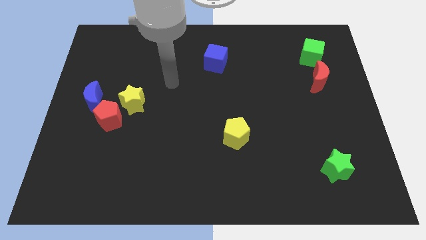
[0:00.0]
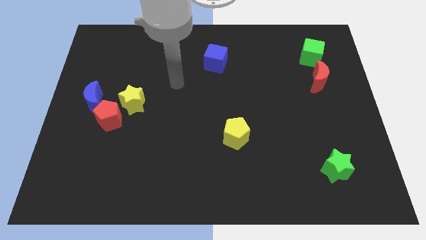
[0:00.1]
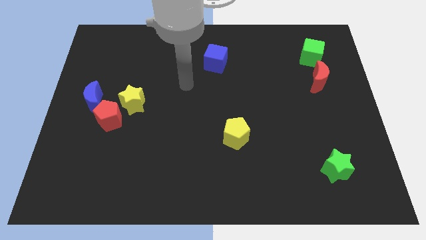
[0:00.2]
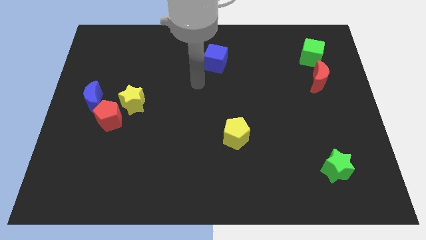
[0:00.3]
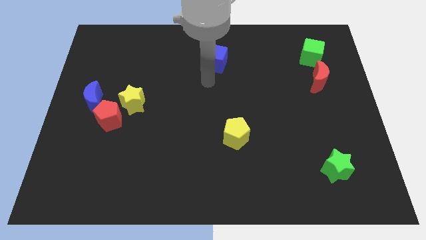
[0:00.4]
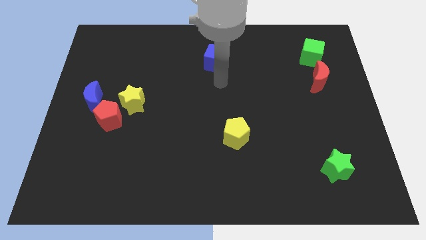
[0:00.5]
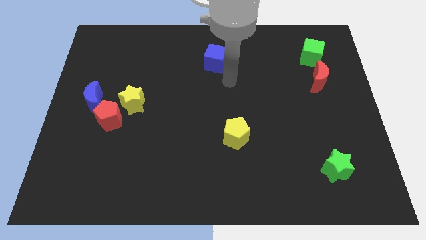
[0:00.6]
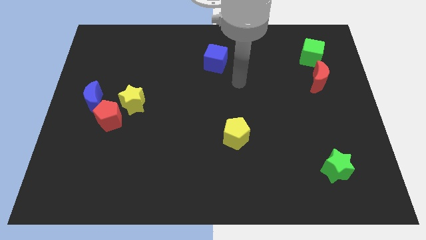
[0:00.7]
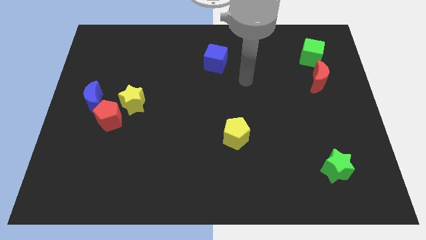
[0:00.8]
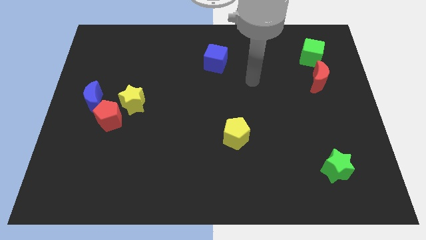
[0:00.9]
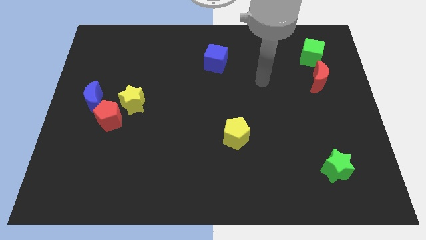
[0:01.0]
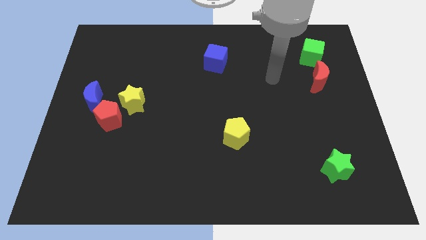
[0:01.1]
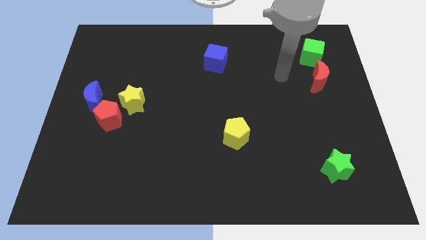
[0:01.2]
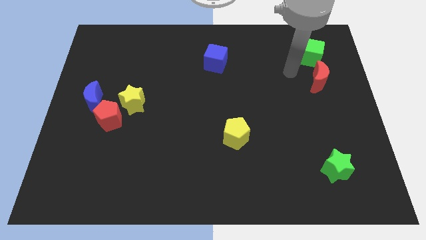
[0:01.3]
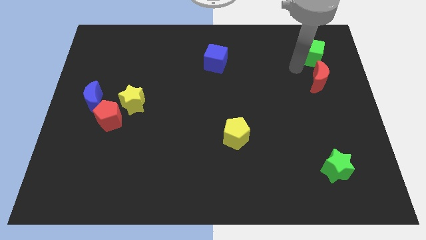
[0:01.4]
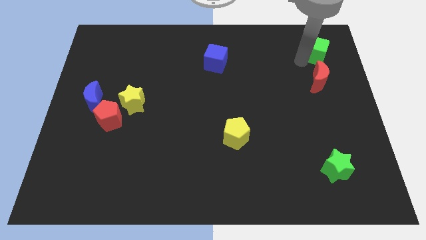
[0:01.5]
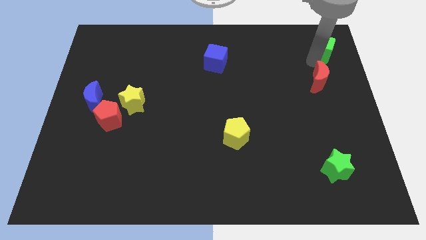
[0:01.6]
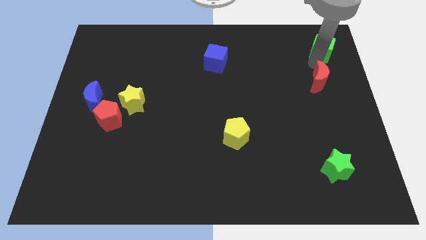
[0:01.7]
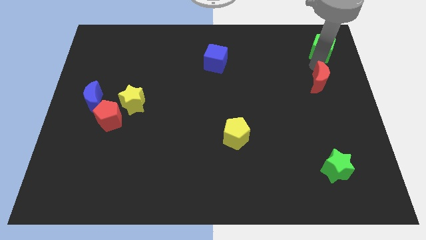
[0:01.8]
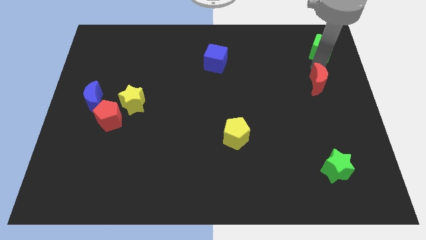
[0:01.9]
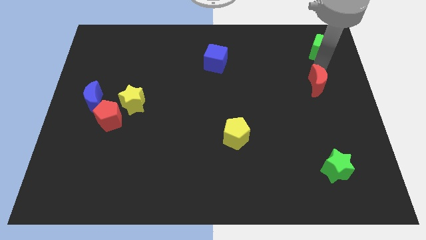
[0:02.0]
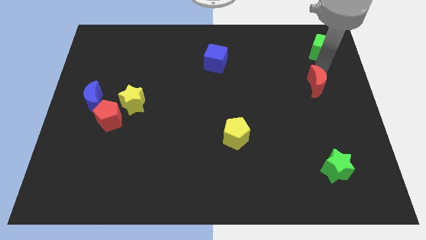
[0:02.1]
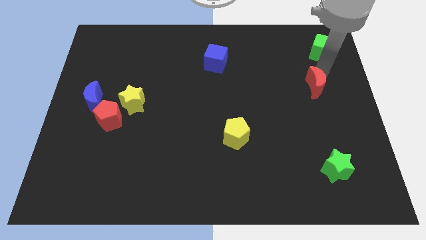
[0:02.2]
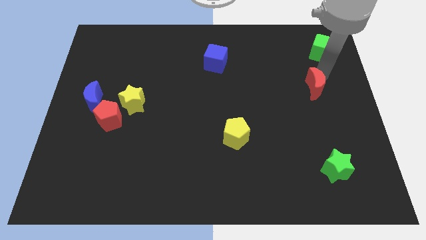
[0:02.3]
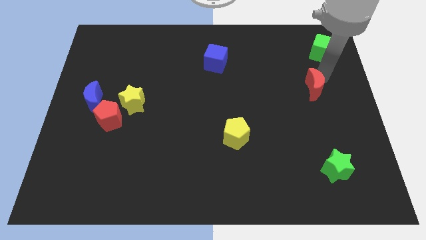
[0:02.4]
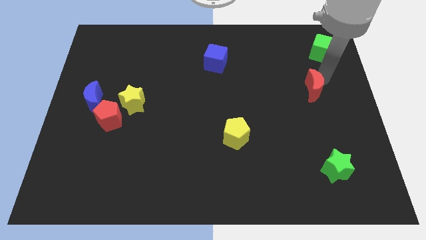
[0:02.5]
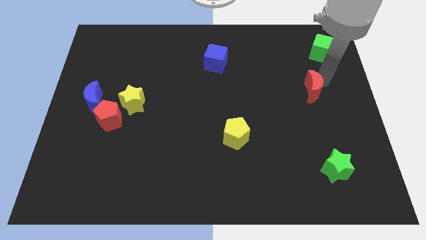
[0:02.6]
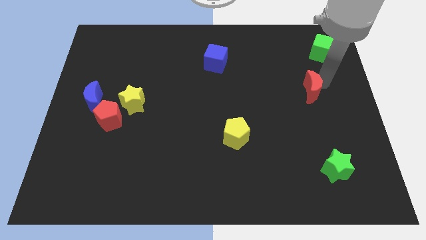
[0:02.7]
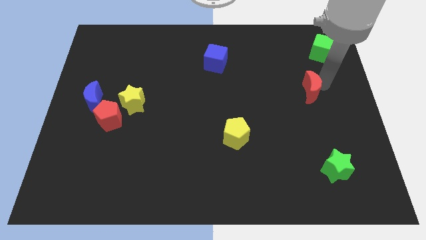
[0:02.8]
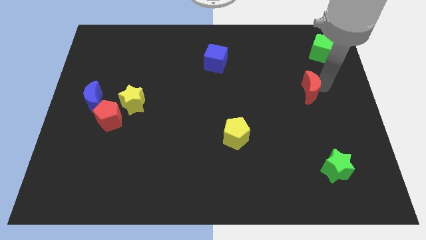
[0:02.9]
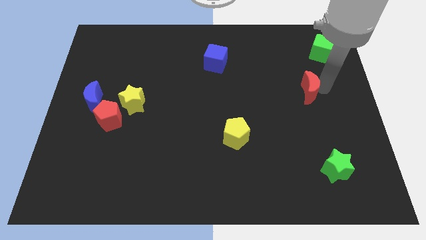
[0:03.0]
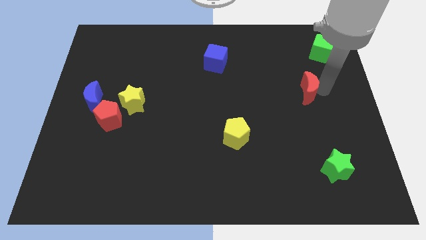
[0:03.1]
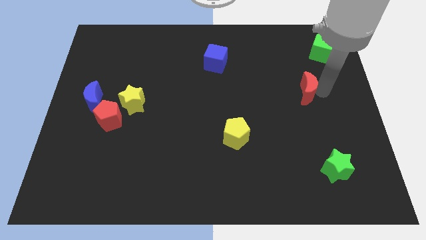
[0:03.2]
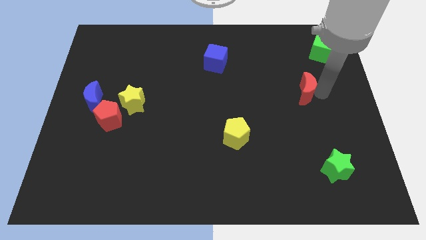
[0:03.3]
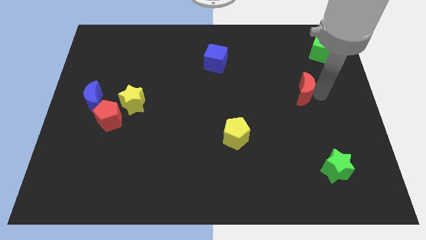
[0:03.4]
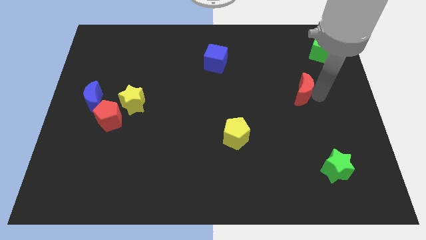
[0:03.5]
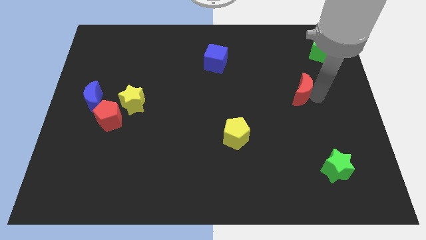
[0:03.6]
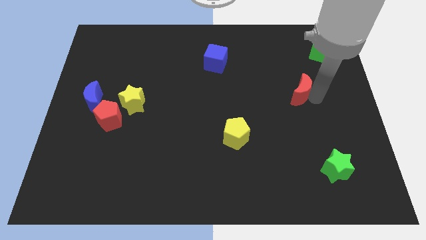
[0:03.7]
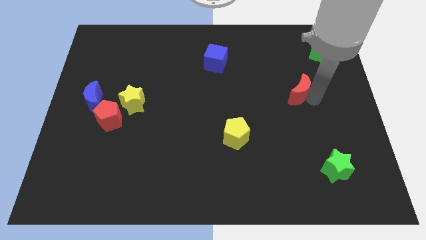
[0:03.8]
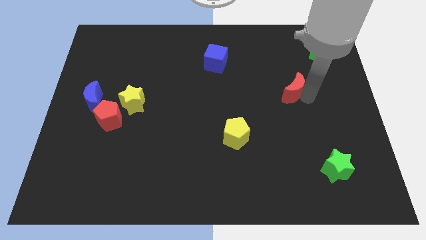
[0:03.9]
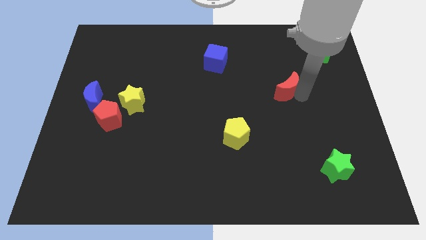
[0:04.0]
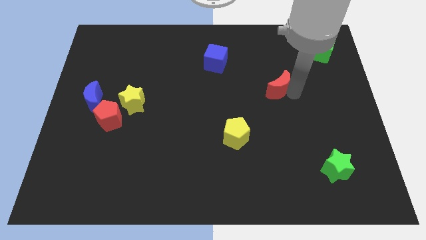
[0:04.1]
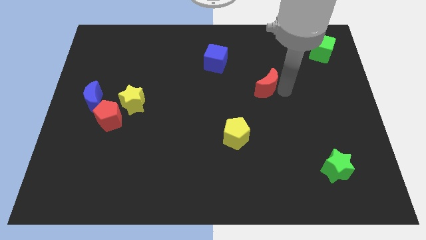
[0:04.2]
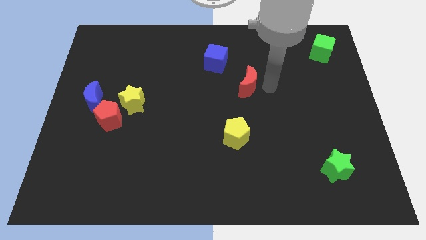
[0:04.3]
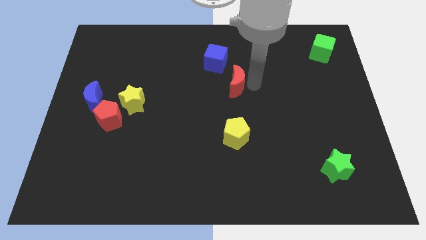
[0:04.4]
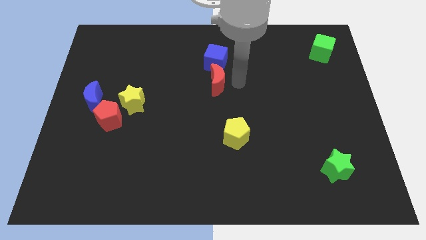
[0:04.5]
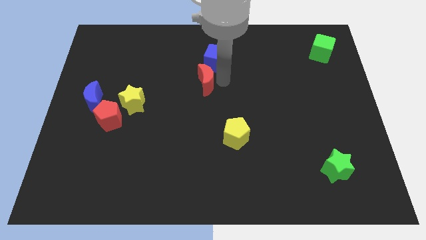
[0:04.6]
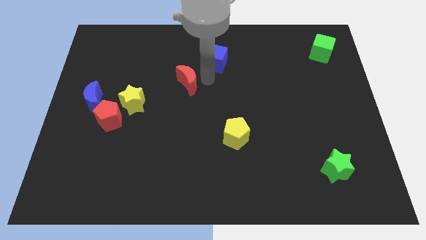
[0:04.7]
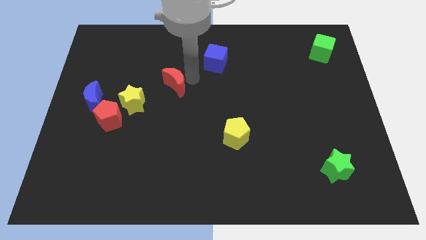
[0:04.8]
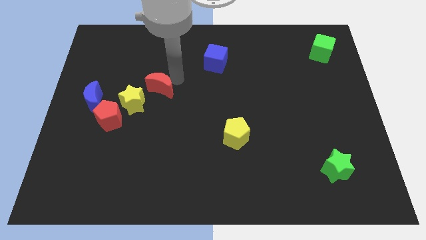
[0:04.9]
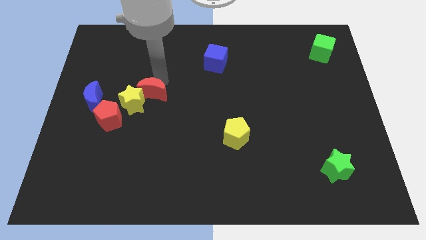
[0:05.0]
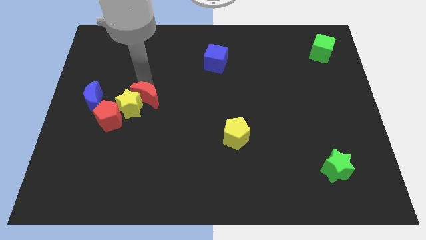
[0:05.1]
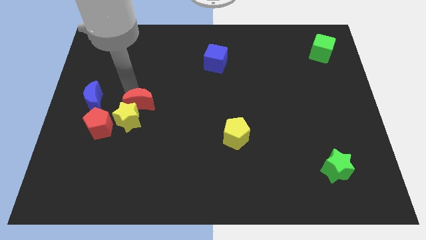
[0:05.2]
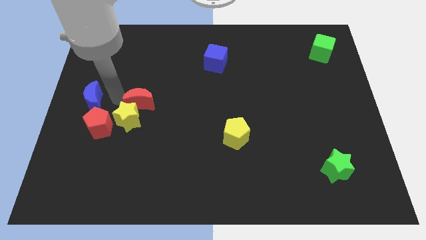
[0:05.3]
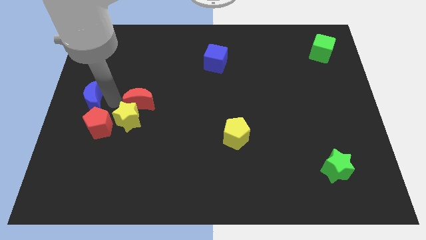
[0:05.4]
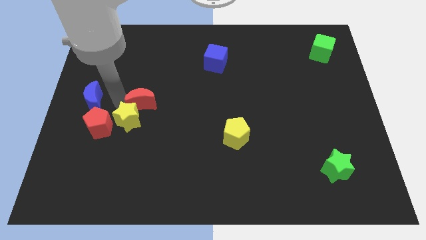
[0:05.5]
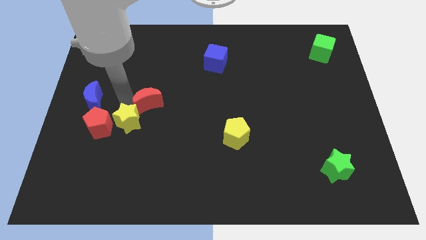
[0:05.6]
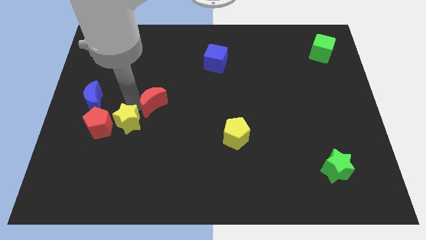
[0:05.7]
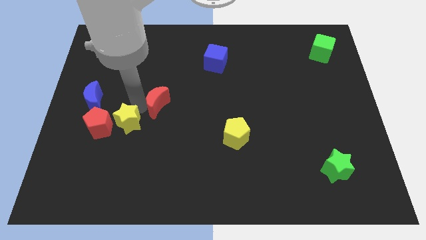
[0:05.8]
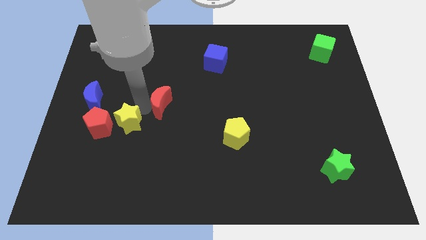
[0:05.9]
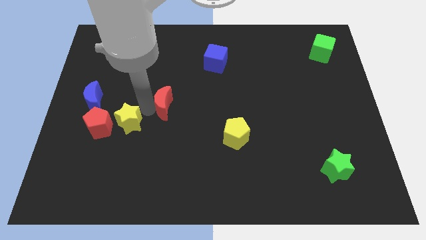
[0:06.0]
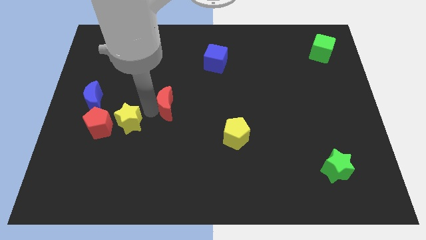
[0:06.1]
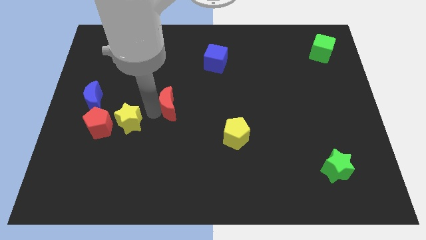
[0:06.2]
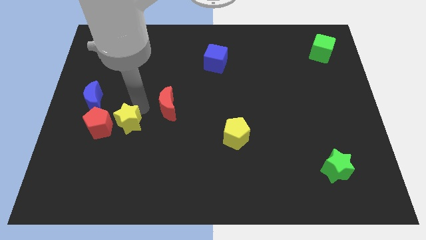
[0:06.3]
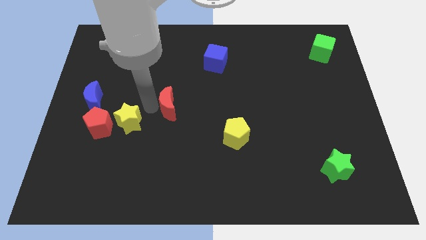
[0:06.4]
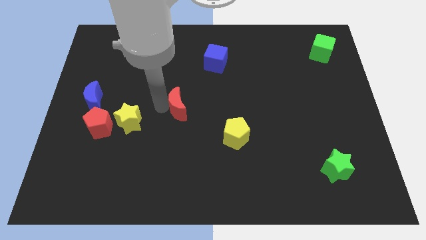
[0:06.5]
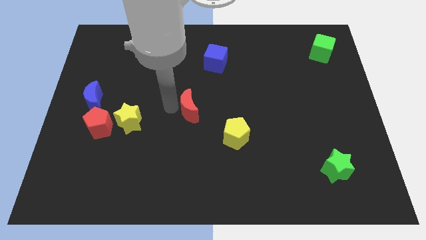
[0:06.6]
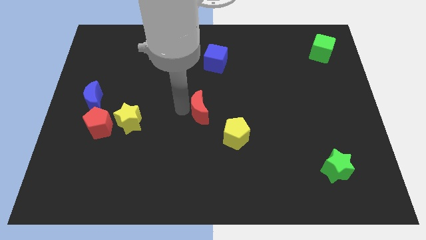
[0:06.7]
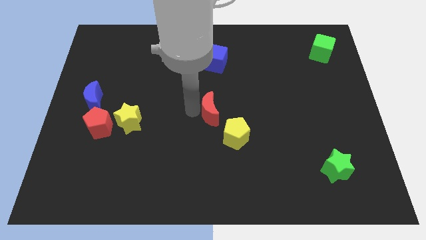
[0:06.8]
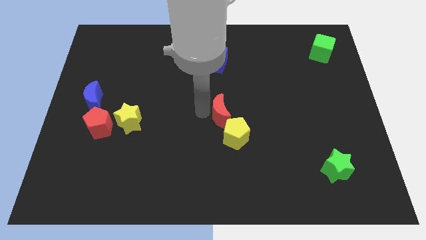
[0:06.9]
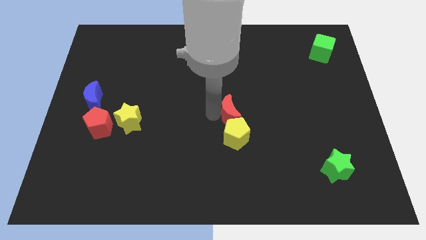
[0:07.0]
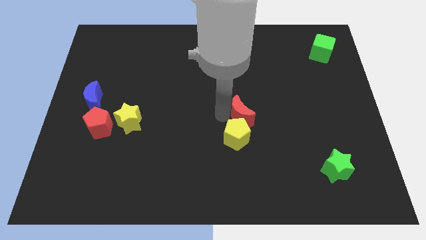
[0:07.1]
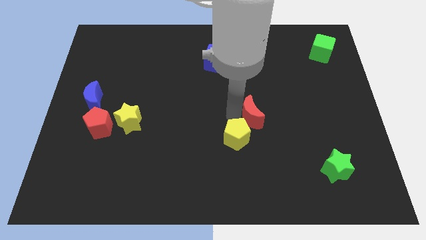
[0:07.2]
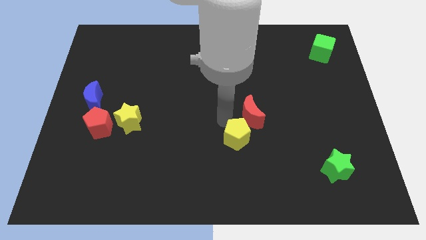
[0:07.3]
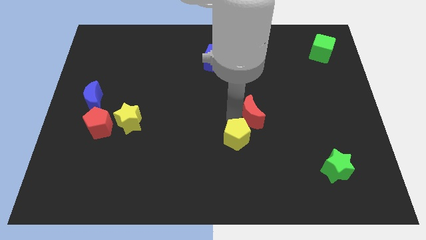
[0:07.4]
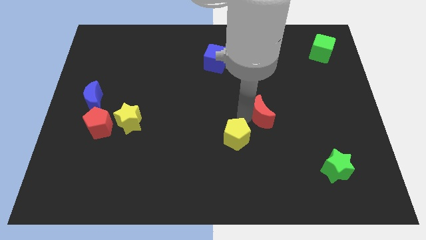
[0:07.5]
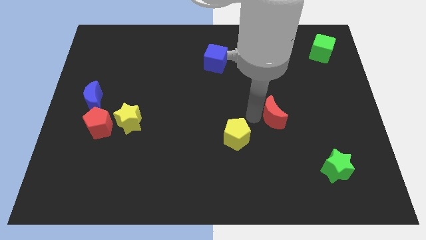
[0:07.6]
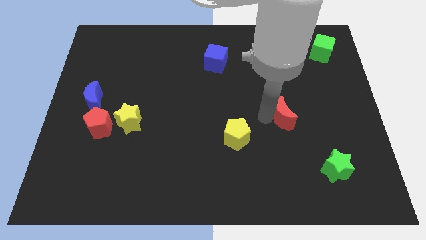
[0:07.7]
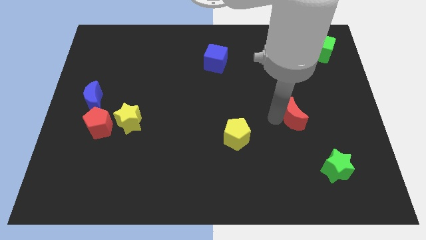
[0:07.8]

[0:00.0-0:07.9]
slightly push the red moon down
